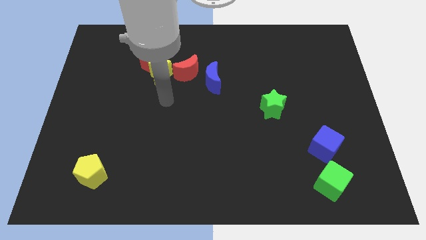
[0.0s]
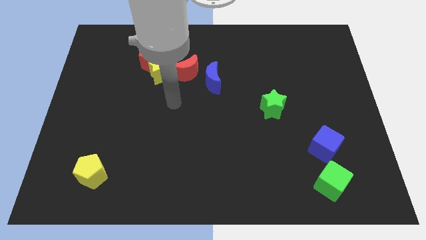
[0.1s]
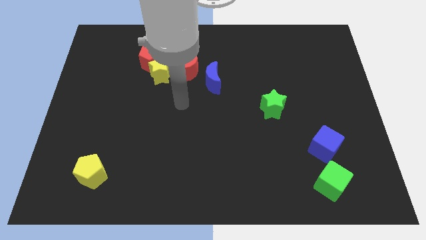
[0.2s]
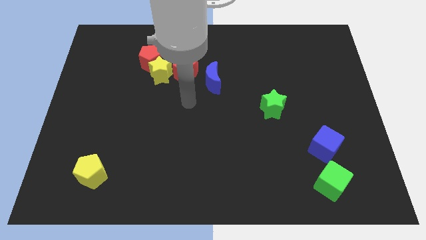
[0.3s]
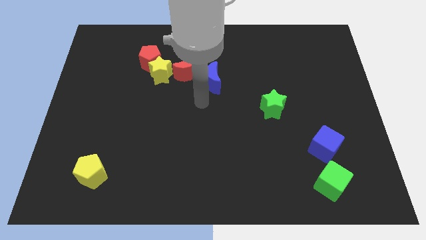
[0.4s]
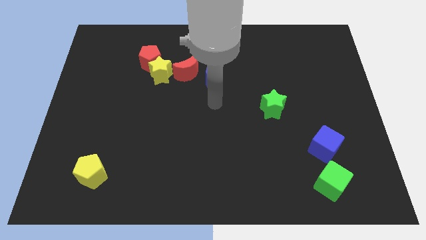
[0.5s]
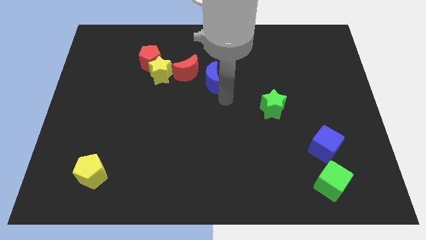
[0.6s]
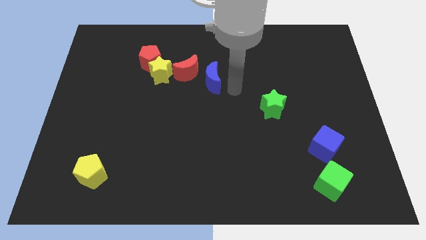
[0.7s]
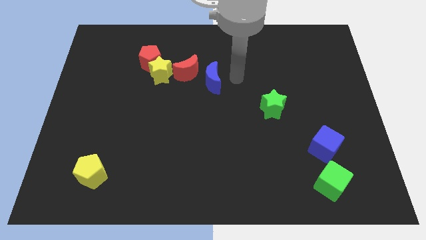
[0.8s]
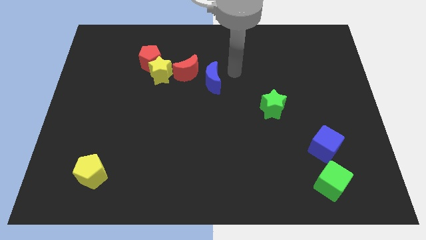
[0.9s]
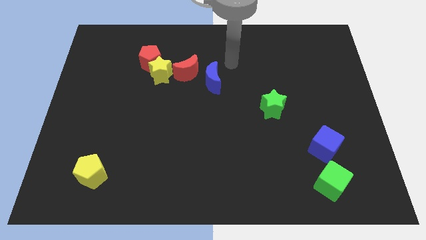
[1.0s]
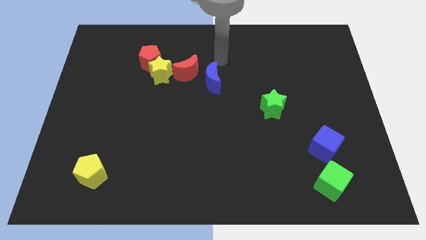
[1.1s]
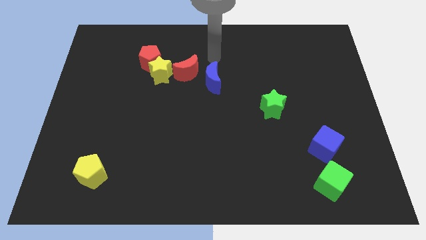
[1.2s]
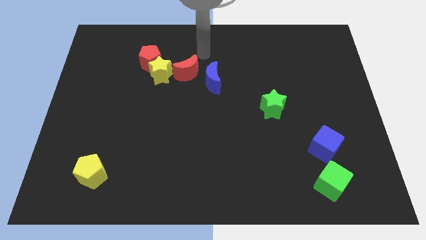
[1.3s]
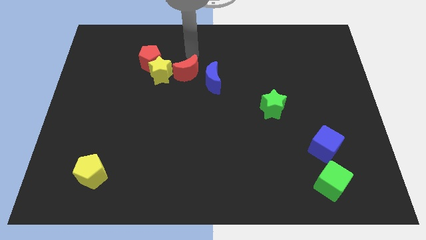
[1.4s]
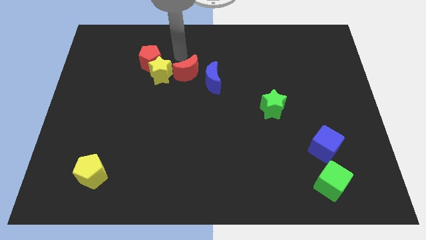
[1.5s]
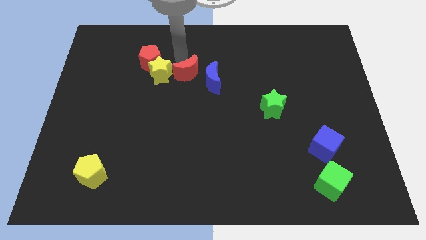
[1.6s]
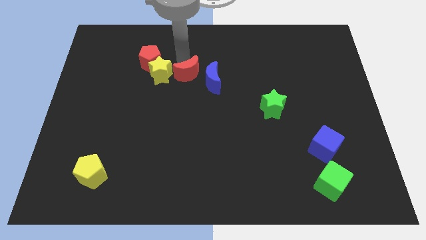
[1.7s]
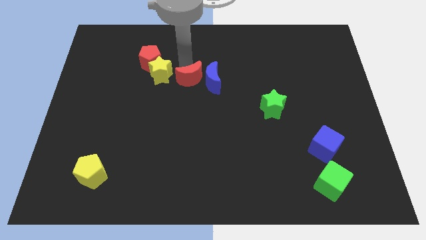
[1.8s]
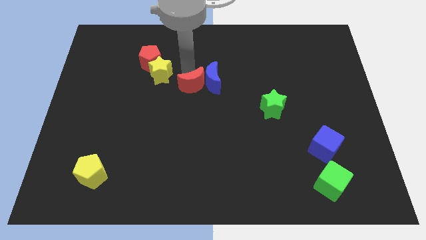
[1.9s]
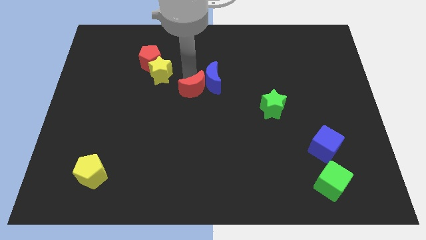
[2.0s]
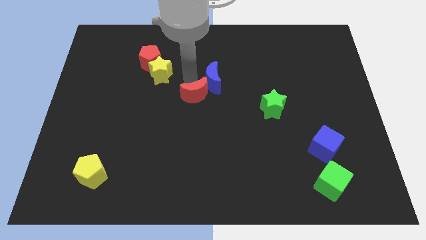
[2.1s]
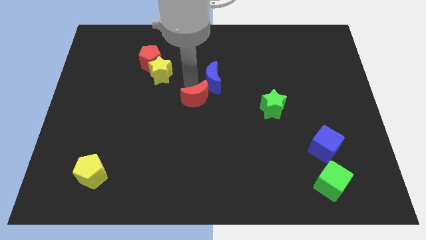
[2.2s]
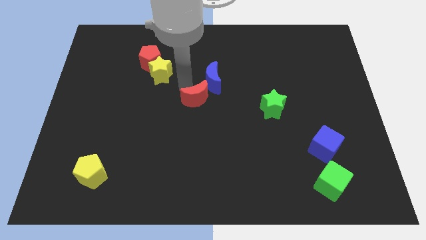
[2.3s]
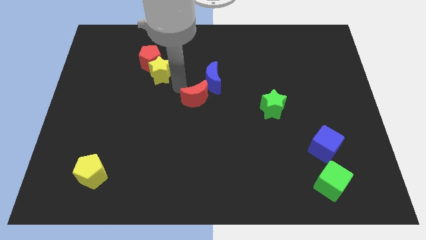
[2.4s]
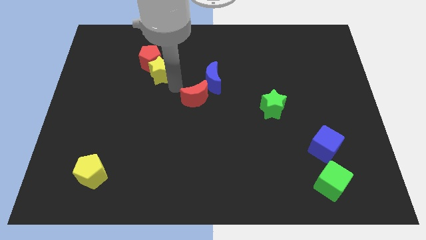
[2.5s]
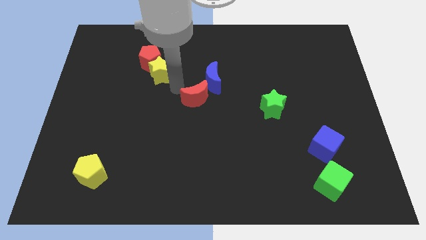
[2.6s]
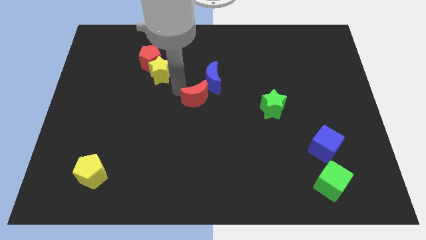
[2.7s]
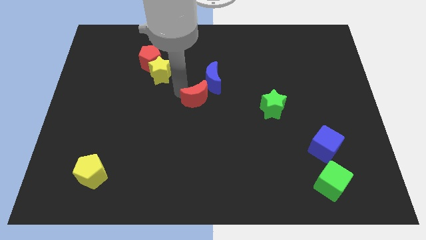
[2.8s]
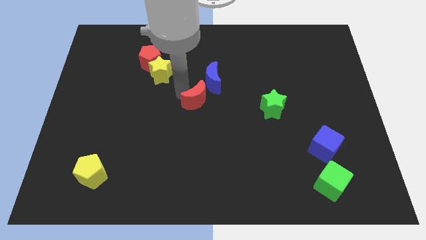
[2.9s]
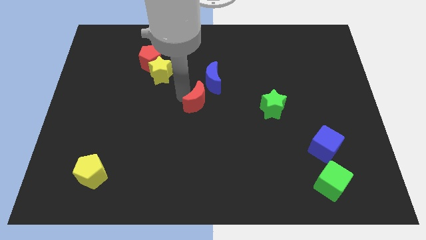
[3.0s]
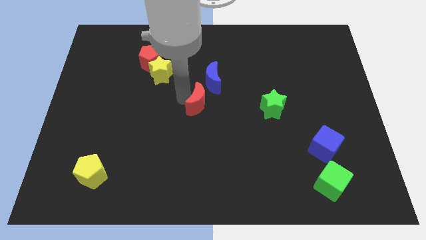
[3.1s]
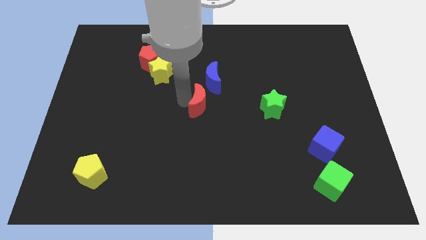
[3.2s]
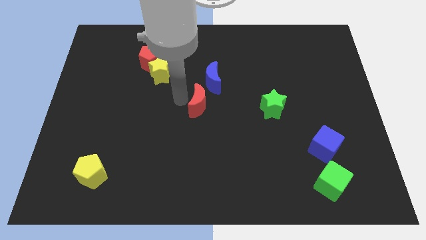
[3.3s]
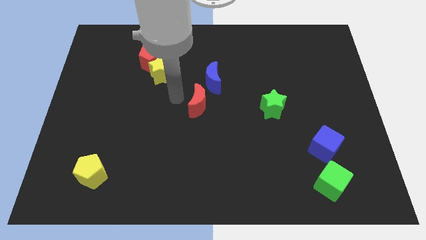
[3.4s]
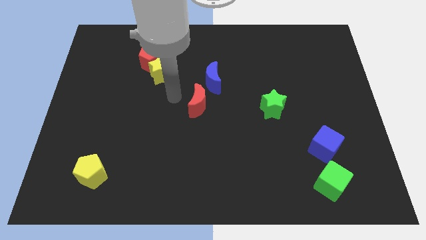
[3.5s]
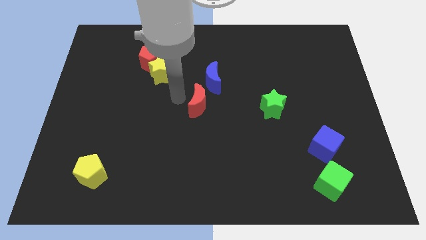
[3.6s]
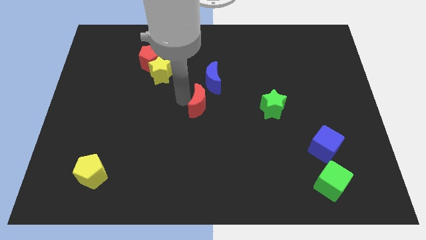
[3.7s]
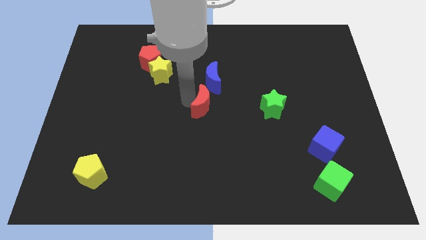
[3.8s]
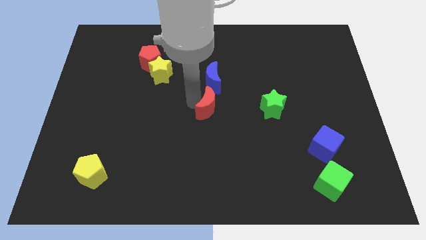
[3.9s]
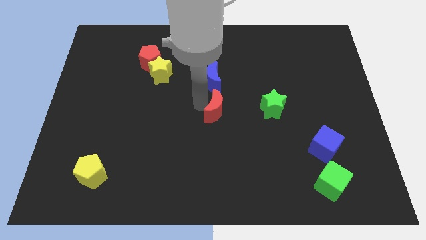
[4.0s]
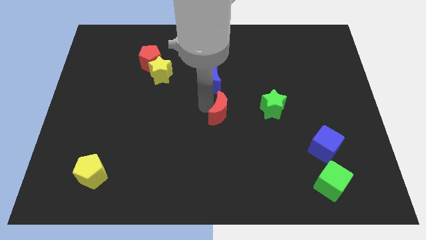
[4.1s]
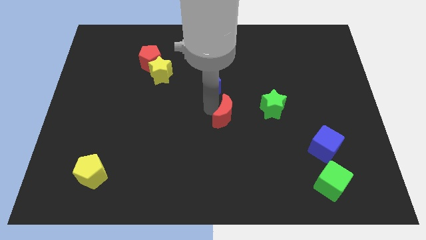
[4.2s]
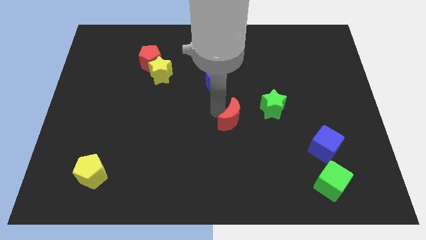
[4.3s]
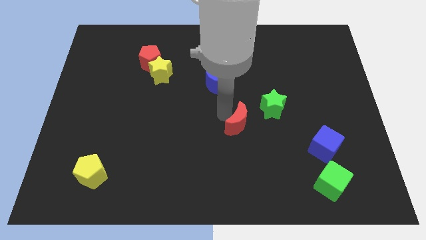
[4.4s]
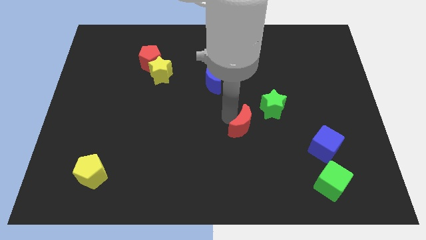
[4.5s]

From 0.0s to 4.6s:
slide the red moon diagonally downwards and to the right

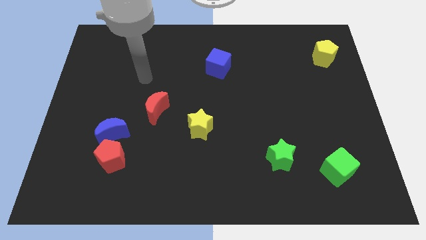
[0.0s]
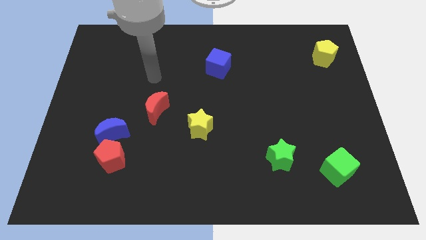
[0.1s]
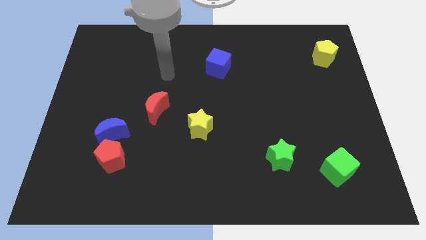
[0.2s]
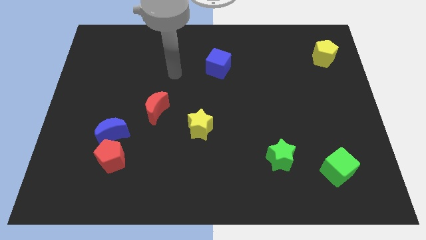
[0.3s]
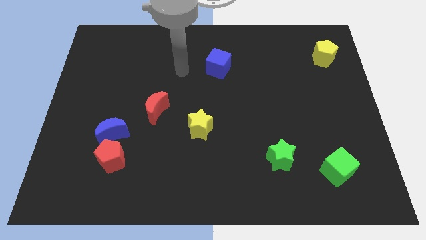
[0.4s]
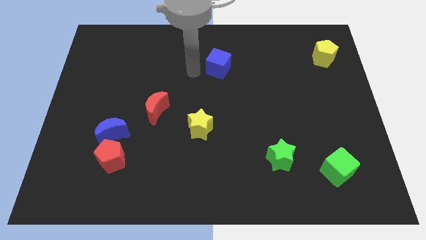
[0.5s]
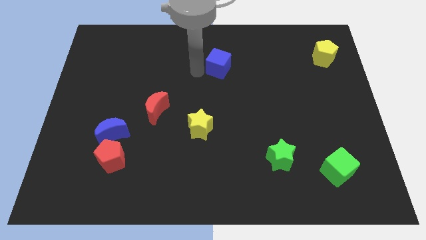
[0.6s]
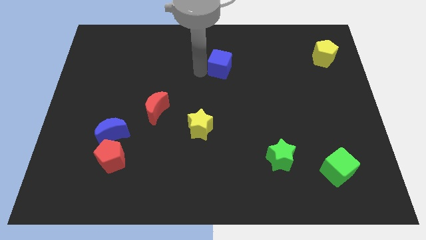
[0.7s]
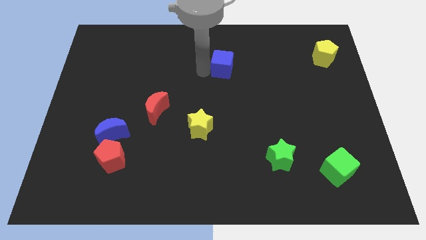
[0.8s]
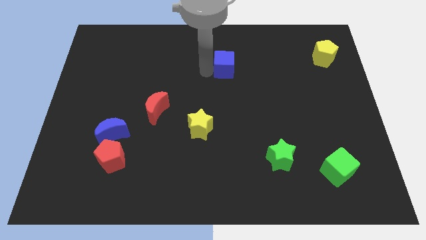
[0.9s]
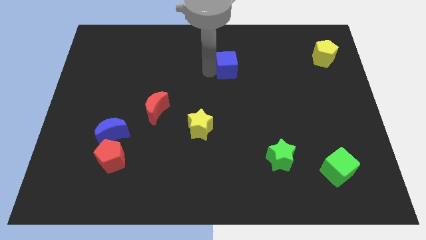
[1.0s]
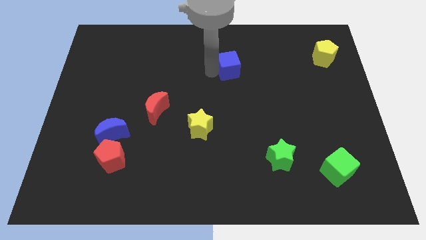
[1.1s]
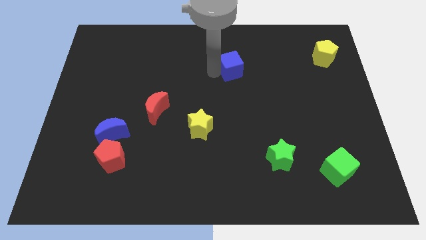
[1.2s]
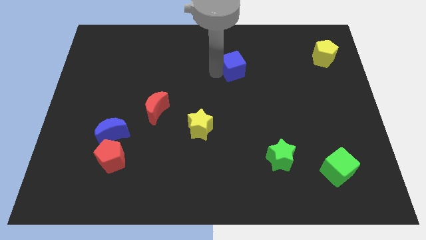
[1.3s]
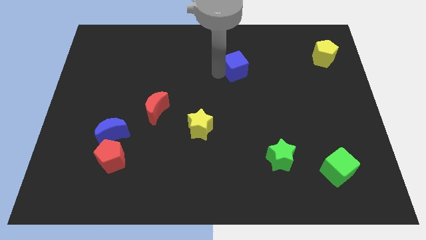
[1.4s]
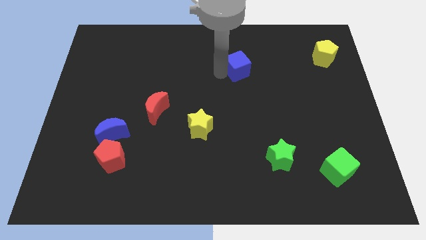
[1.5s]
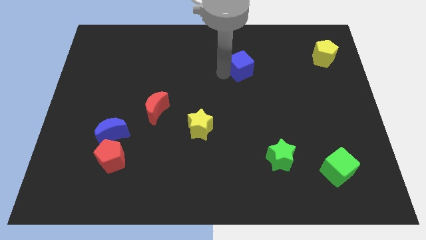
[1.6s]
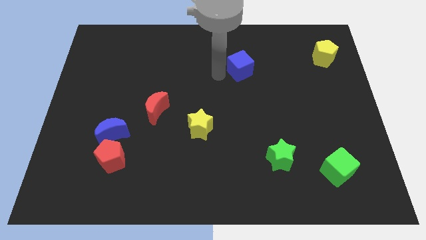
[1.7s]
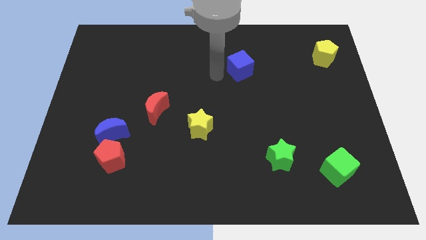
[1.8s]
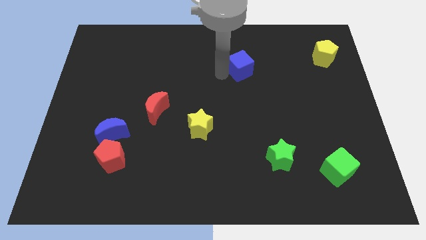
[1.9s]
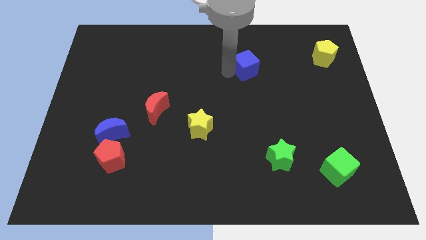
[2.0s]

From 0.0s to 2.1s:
move the blue cube a little bit right

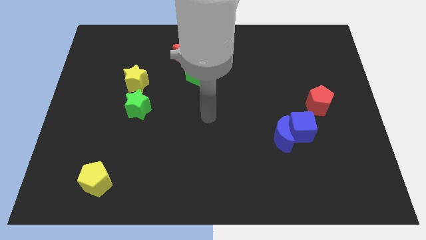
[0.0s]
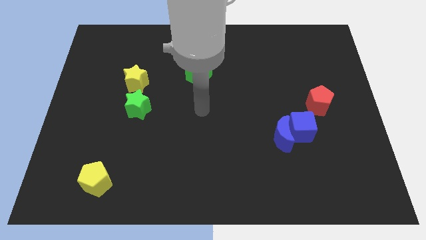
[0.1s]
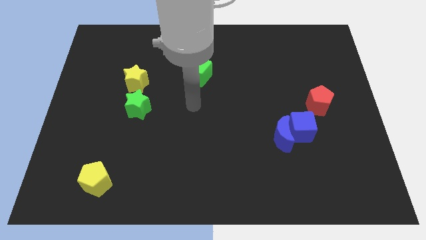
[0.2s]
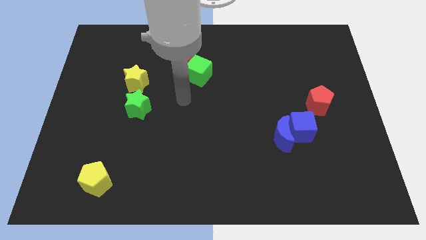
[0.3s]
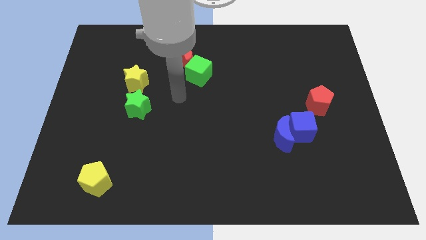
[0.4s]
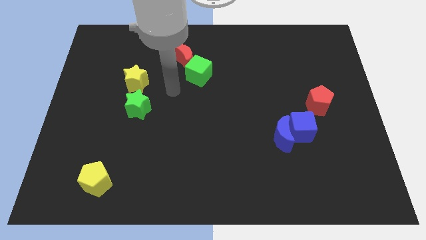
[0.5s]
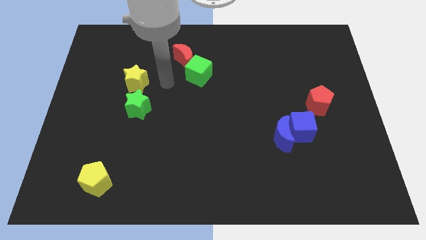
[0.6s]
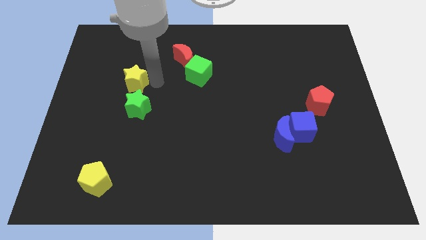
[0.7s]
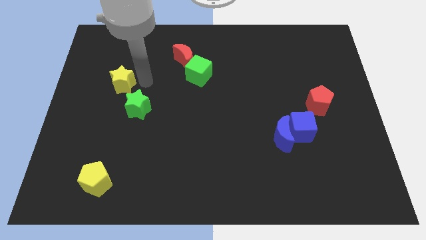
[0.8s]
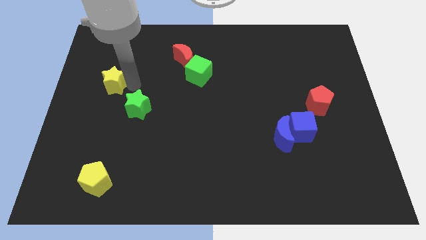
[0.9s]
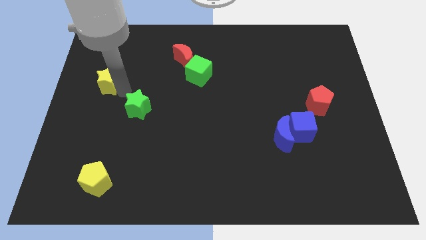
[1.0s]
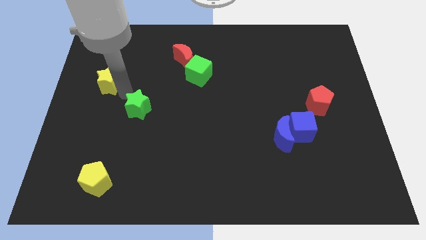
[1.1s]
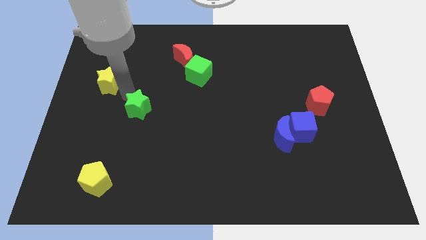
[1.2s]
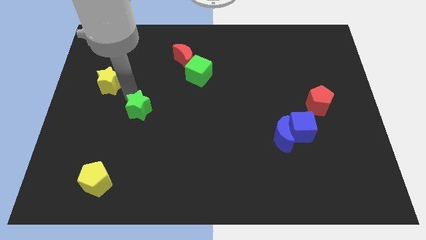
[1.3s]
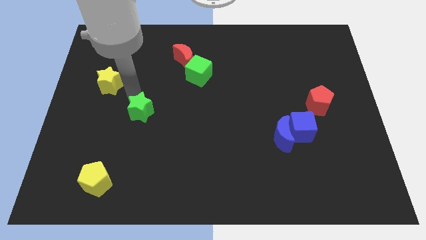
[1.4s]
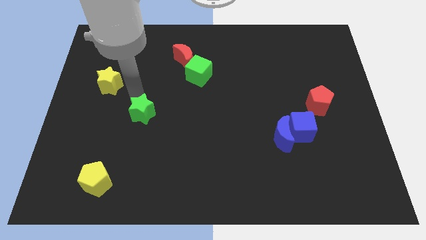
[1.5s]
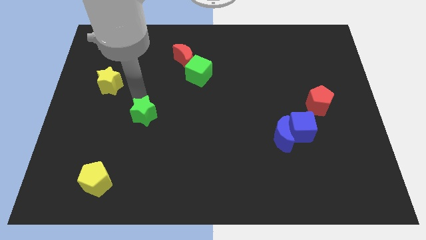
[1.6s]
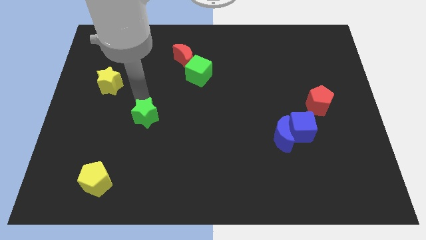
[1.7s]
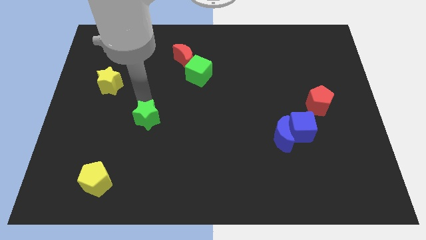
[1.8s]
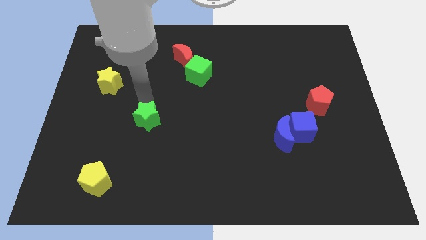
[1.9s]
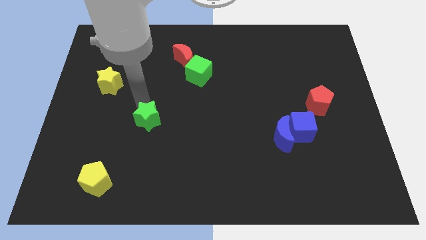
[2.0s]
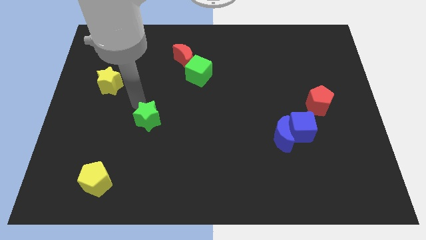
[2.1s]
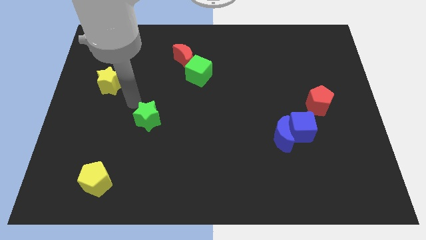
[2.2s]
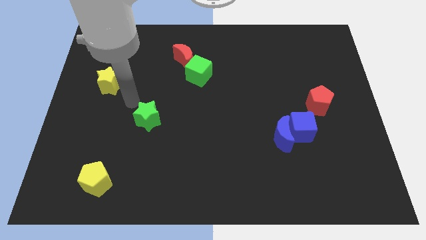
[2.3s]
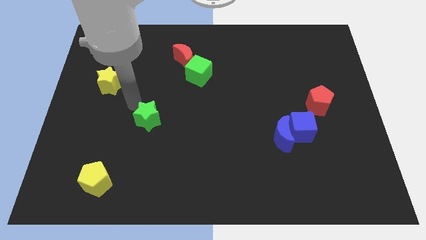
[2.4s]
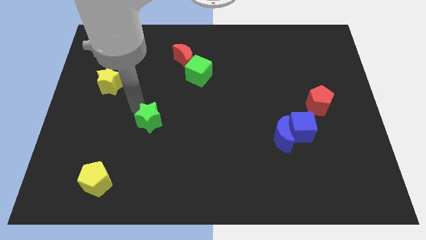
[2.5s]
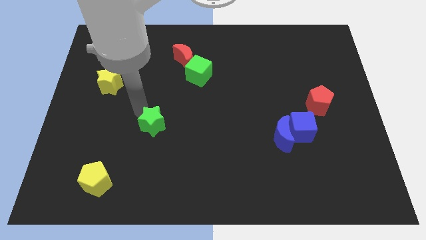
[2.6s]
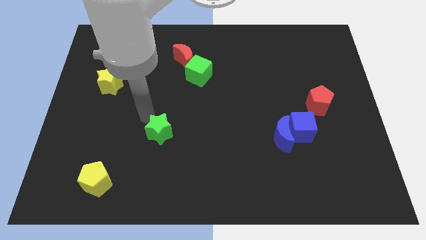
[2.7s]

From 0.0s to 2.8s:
push the green star down and then right somewhat
